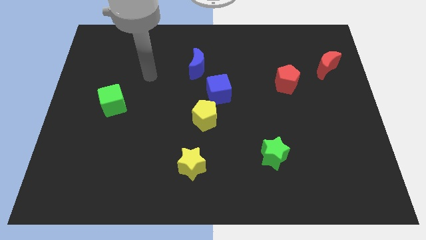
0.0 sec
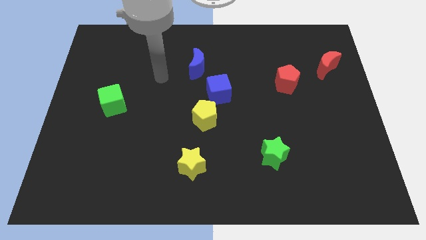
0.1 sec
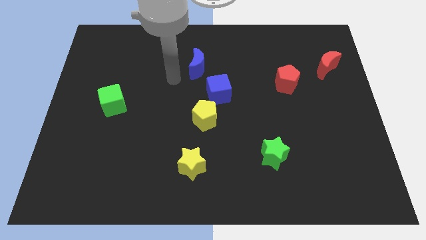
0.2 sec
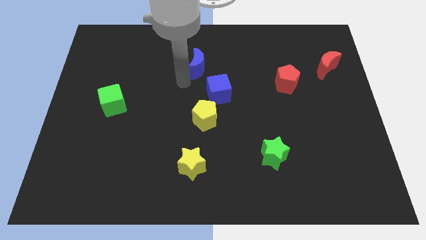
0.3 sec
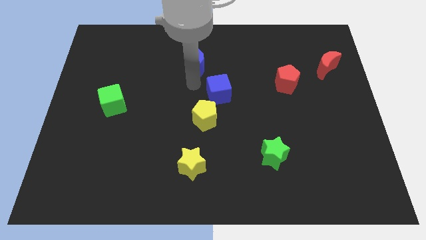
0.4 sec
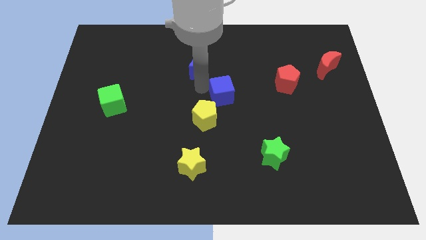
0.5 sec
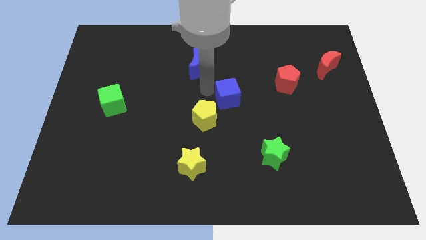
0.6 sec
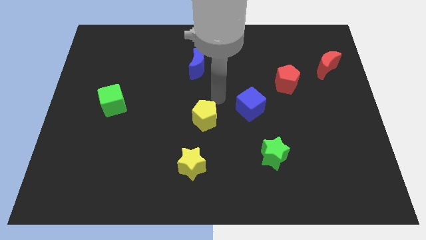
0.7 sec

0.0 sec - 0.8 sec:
separate the yellow pentagon from the blue cube

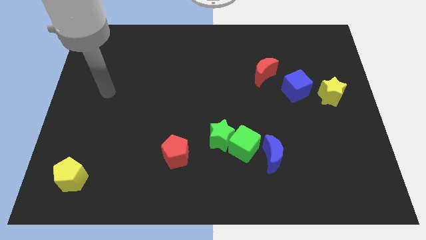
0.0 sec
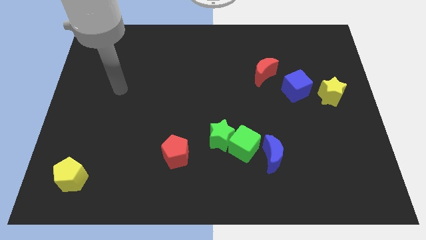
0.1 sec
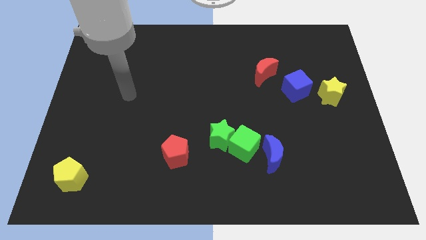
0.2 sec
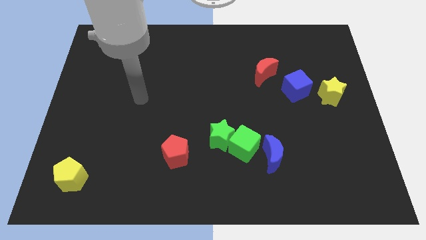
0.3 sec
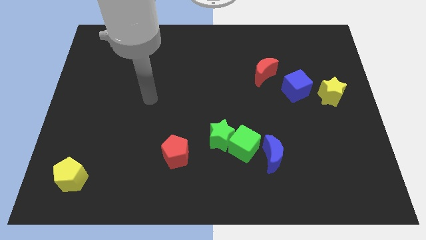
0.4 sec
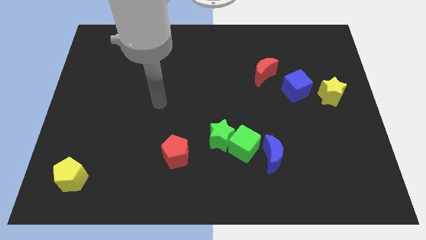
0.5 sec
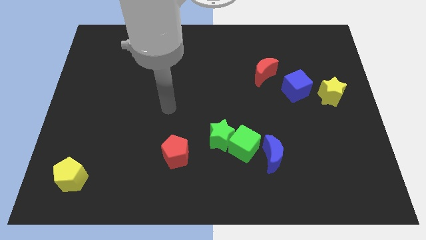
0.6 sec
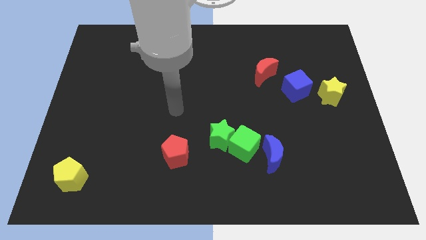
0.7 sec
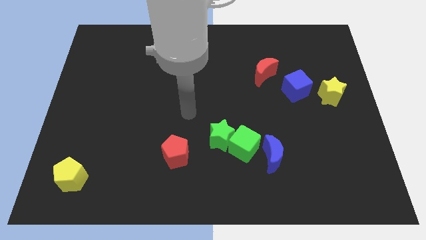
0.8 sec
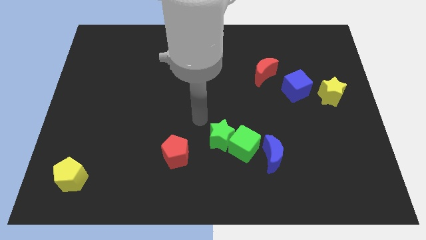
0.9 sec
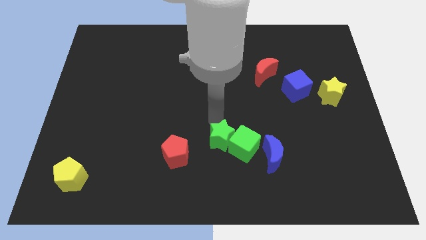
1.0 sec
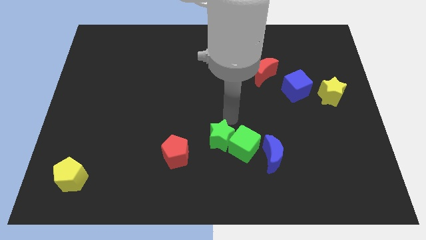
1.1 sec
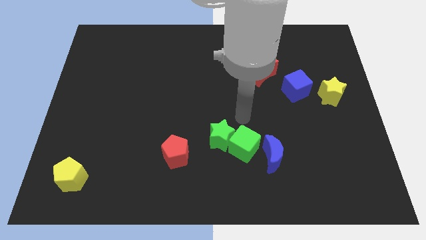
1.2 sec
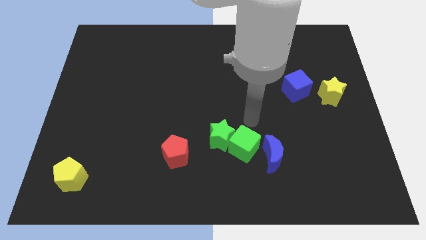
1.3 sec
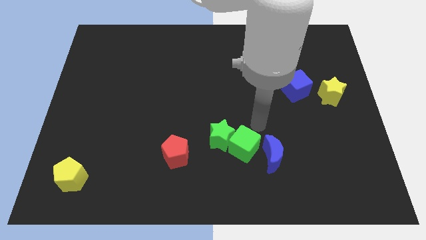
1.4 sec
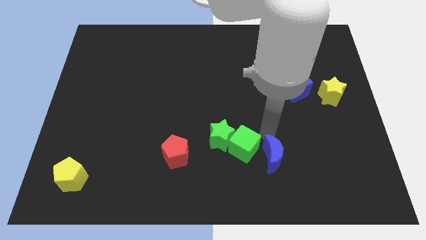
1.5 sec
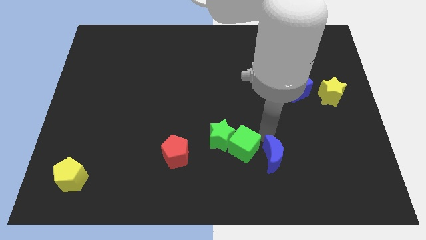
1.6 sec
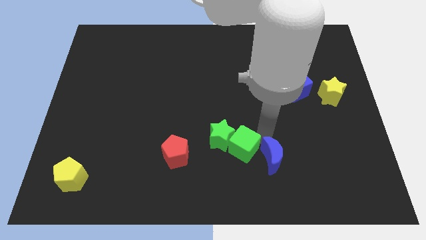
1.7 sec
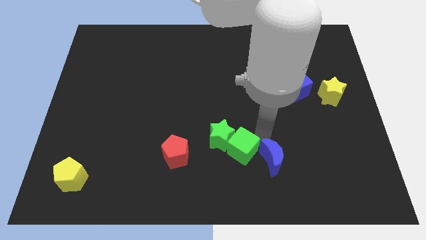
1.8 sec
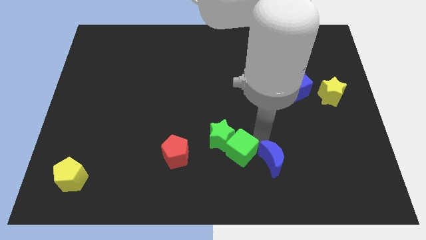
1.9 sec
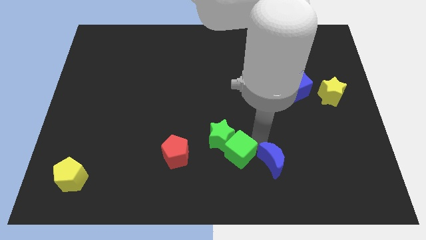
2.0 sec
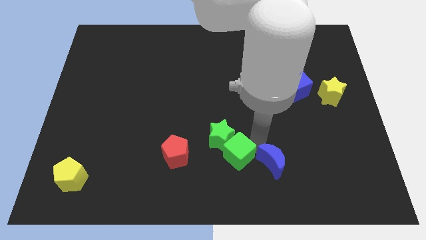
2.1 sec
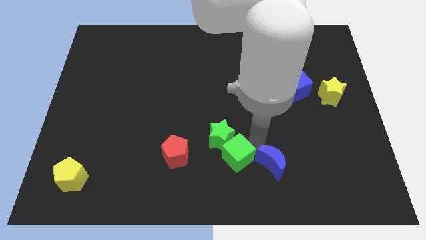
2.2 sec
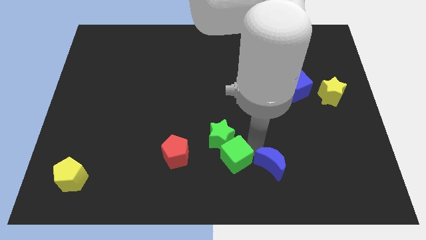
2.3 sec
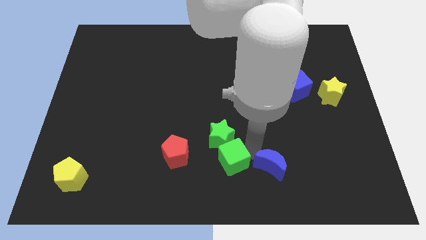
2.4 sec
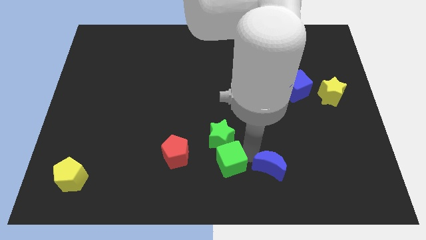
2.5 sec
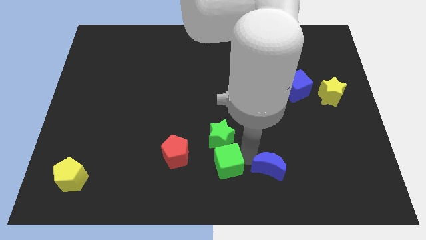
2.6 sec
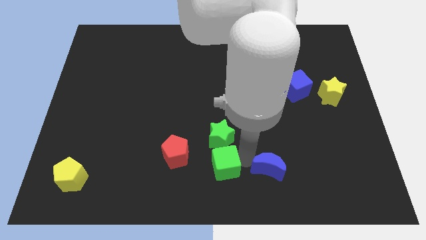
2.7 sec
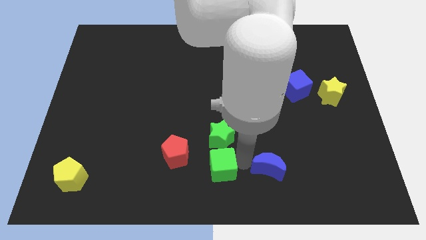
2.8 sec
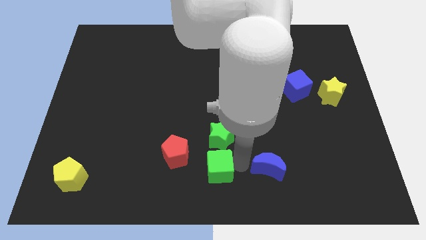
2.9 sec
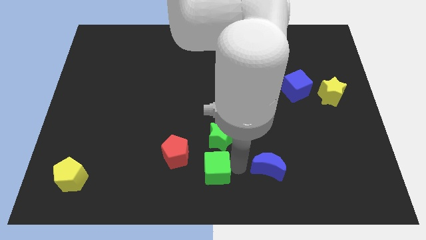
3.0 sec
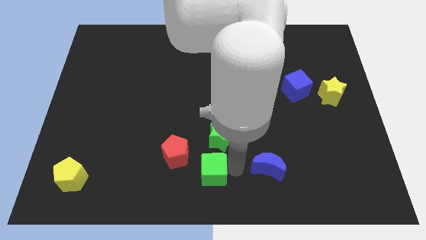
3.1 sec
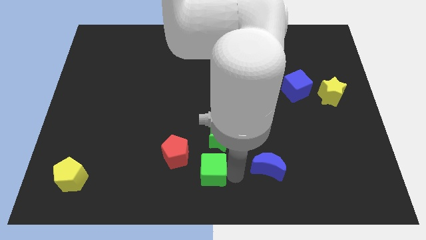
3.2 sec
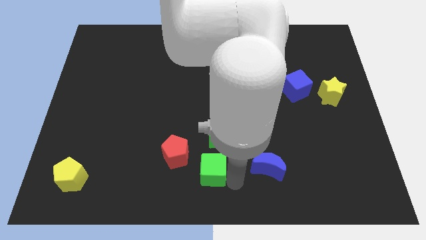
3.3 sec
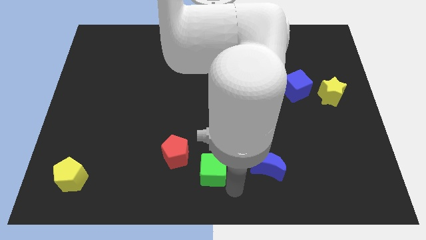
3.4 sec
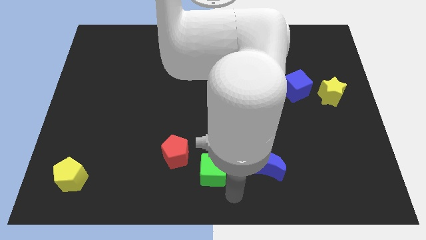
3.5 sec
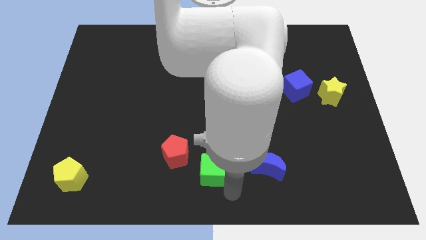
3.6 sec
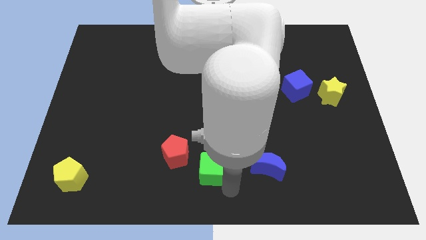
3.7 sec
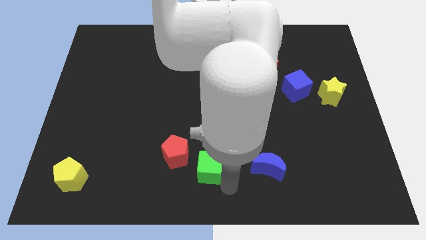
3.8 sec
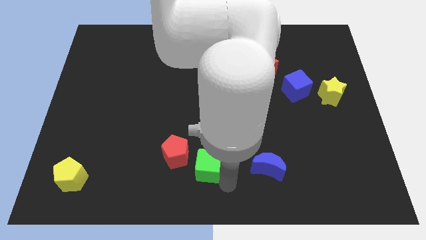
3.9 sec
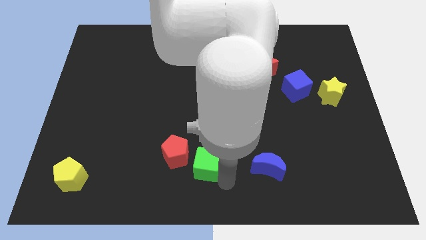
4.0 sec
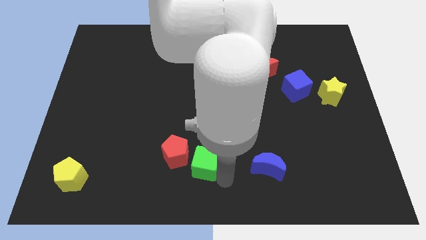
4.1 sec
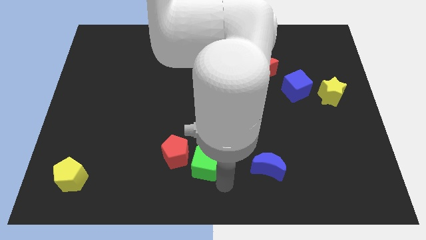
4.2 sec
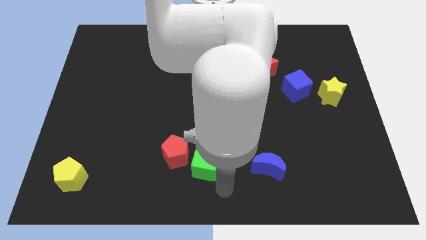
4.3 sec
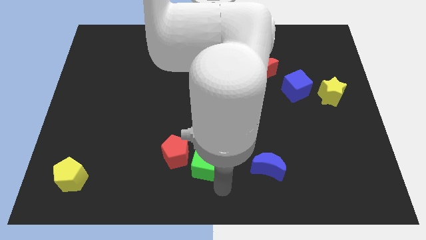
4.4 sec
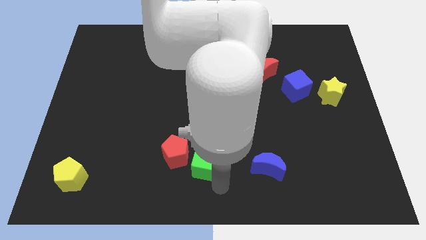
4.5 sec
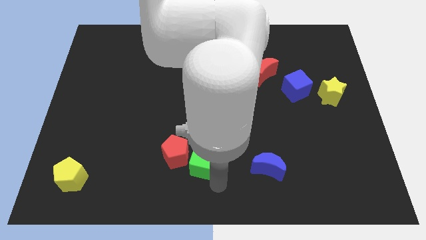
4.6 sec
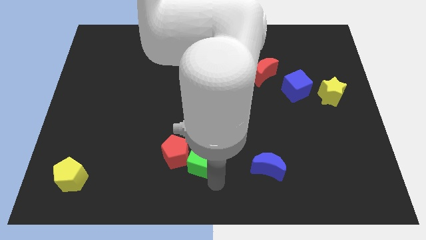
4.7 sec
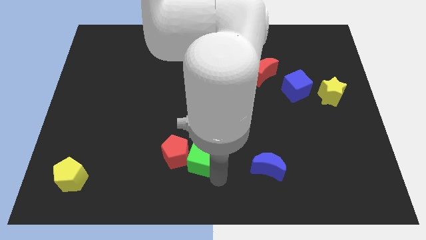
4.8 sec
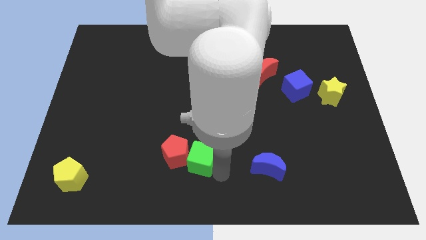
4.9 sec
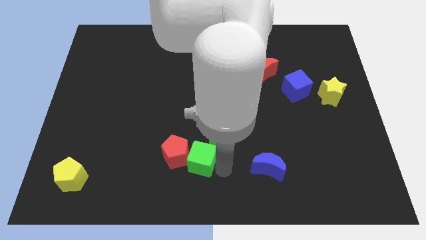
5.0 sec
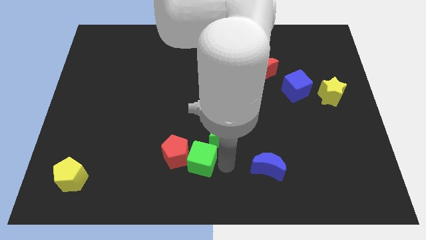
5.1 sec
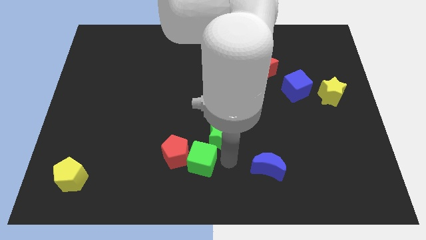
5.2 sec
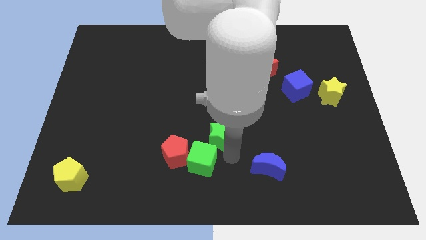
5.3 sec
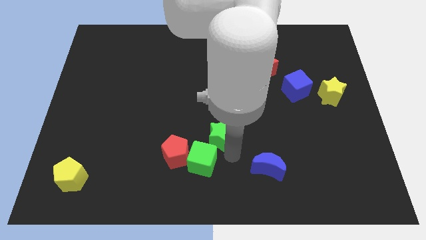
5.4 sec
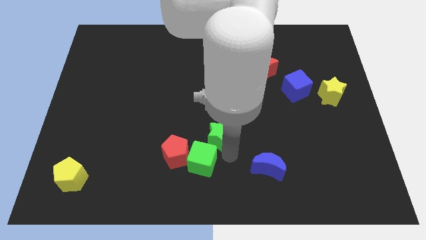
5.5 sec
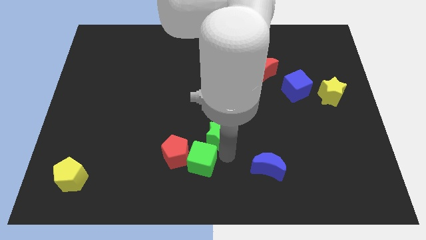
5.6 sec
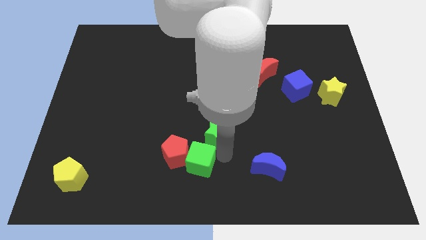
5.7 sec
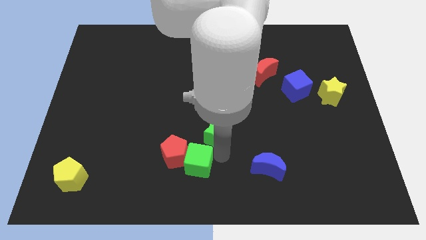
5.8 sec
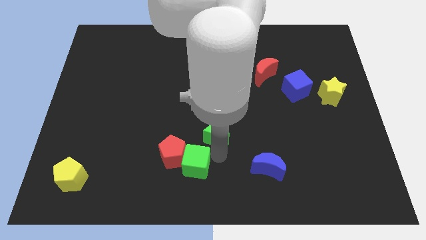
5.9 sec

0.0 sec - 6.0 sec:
pull the green cube apart from the green star and blue moon

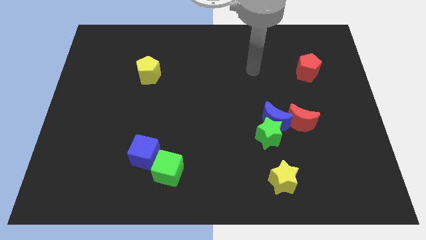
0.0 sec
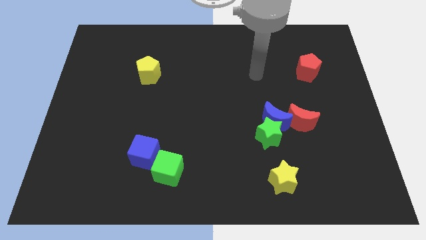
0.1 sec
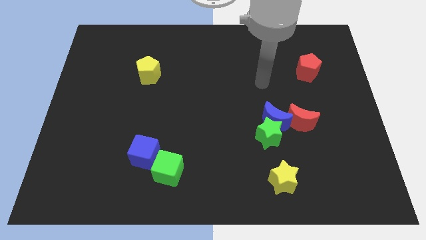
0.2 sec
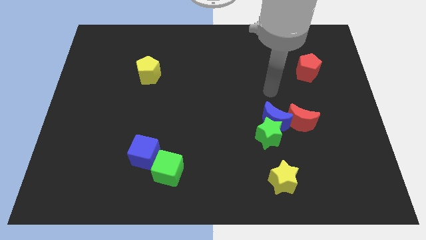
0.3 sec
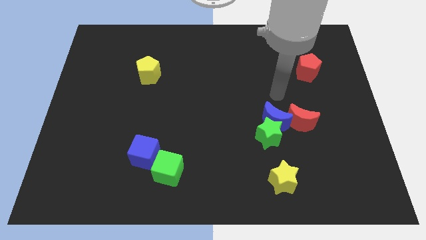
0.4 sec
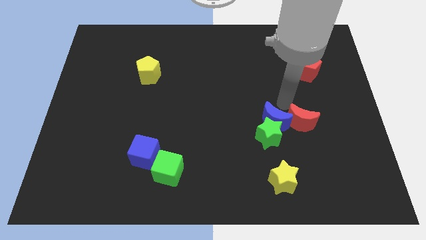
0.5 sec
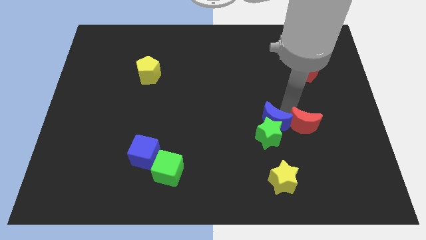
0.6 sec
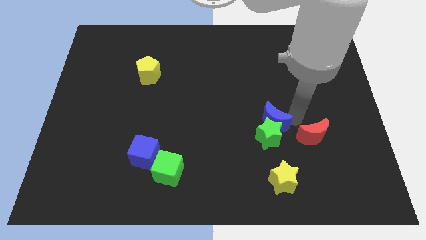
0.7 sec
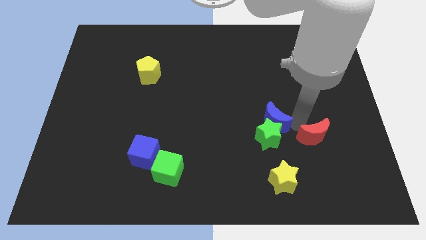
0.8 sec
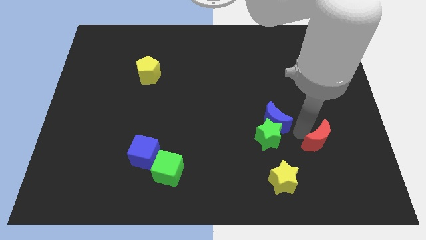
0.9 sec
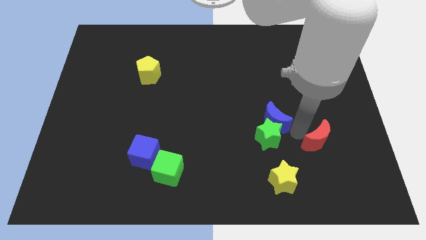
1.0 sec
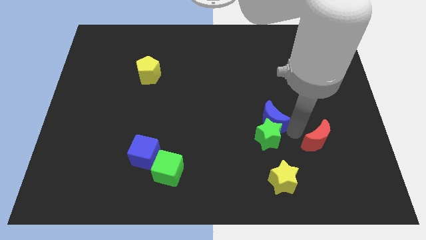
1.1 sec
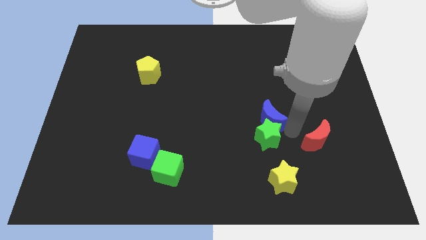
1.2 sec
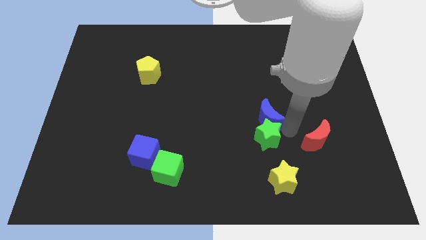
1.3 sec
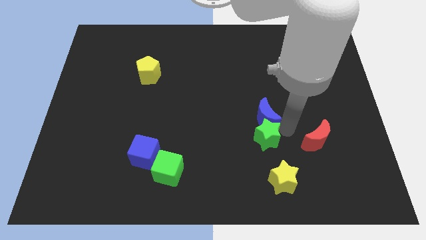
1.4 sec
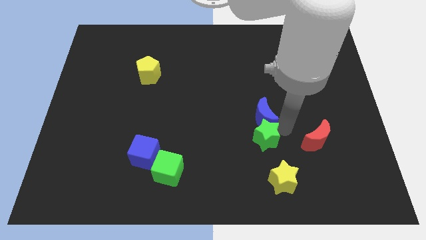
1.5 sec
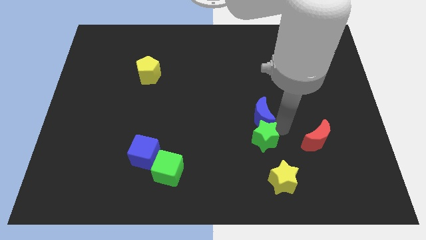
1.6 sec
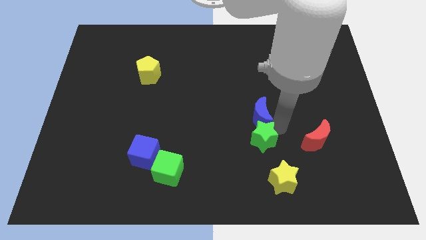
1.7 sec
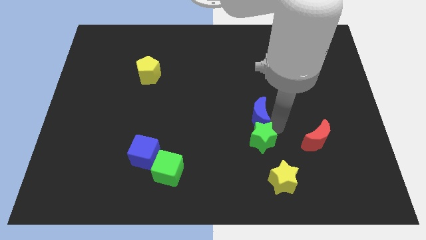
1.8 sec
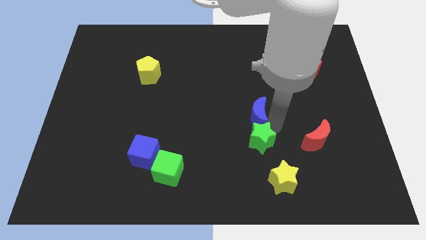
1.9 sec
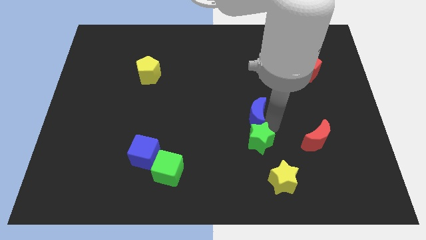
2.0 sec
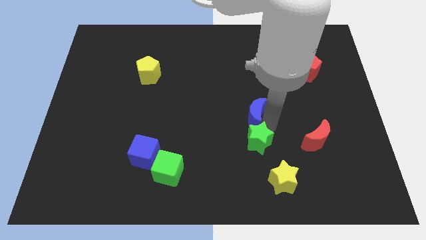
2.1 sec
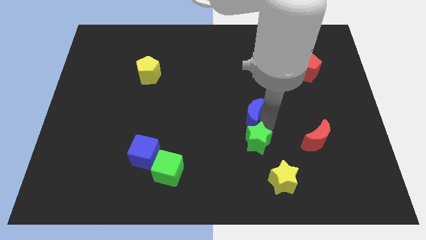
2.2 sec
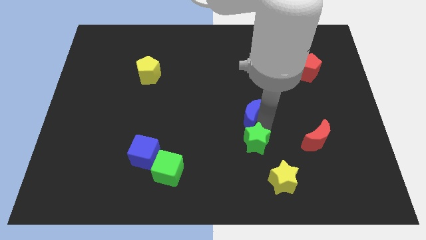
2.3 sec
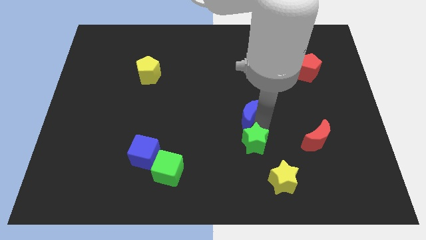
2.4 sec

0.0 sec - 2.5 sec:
pull the blue moon apart from the green star and red moon
